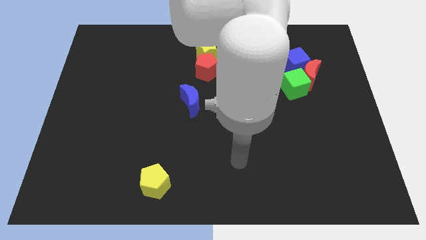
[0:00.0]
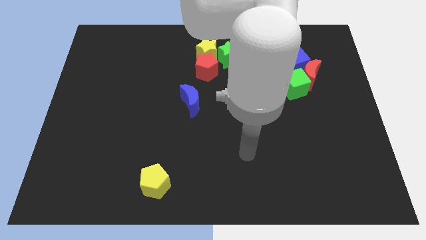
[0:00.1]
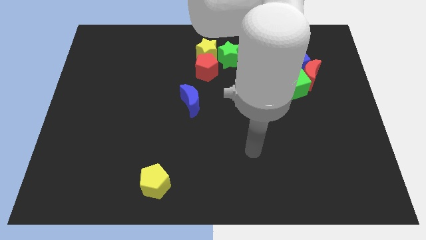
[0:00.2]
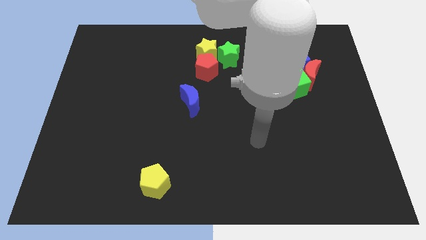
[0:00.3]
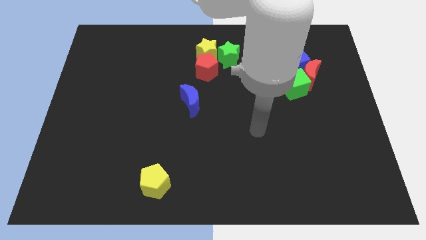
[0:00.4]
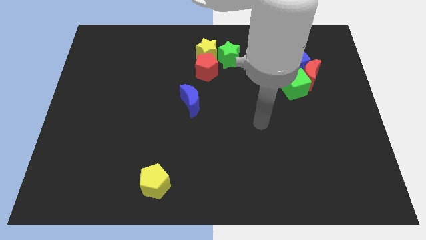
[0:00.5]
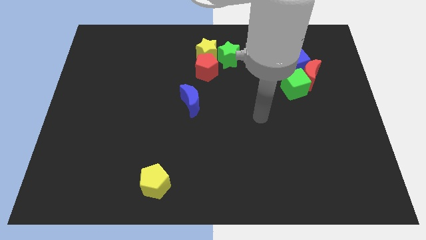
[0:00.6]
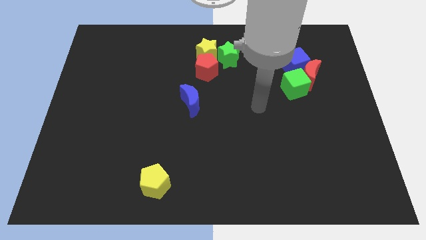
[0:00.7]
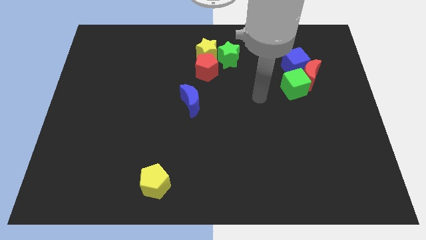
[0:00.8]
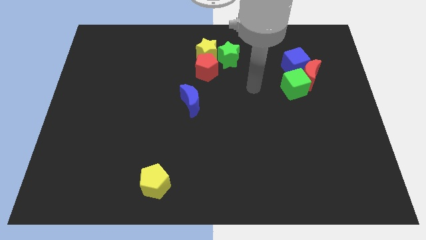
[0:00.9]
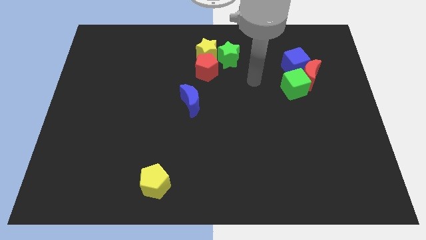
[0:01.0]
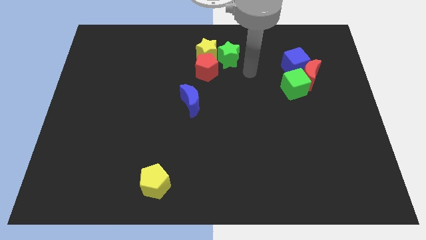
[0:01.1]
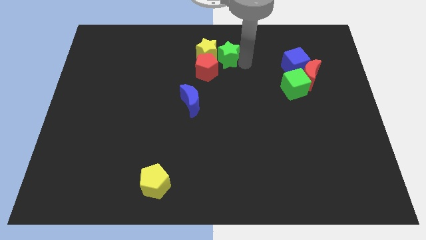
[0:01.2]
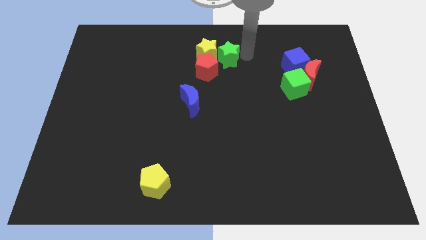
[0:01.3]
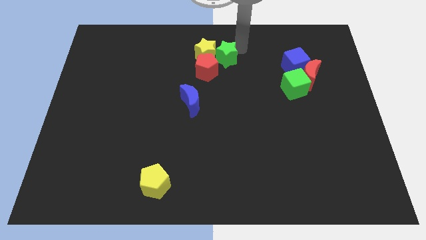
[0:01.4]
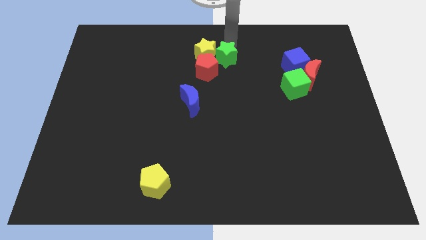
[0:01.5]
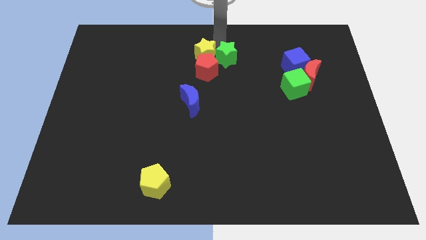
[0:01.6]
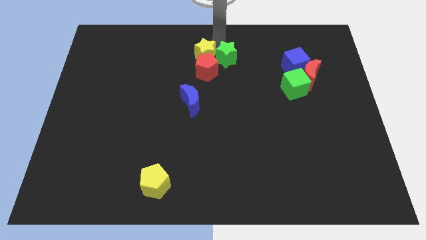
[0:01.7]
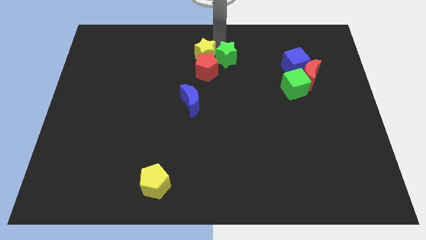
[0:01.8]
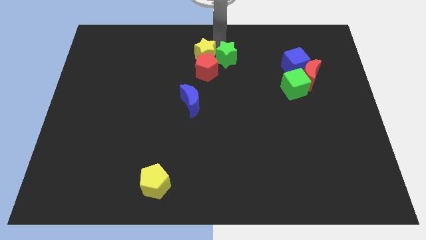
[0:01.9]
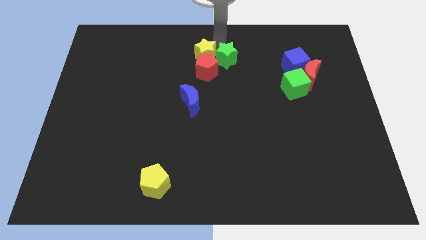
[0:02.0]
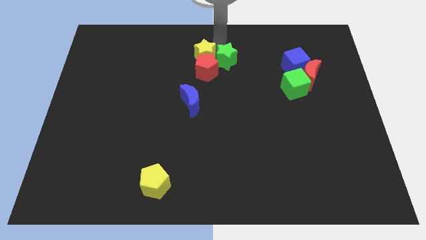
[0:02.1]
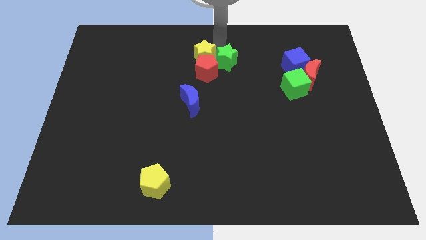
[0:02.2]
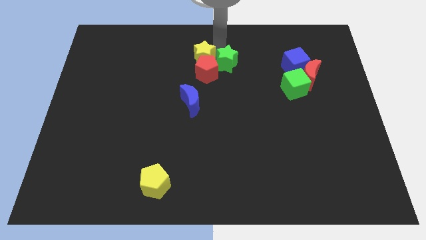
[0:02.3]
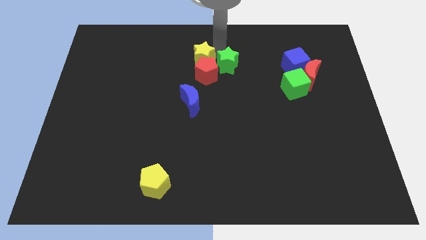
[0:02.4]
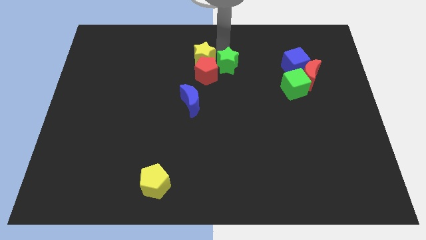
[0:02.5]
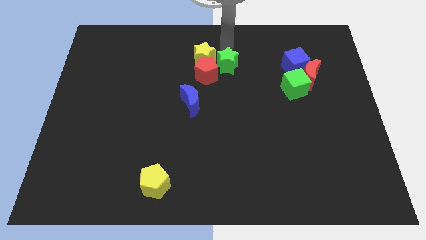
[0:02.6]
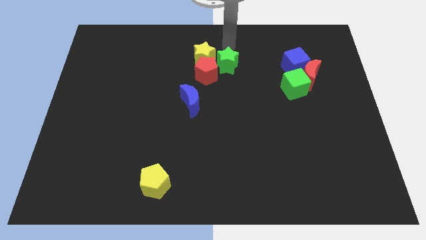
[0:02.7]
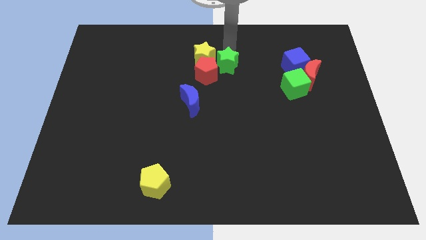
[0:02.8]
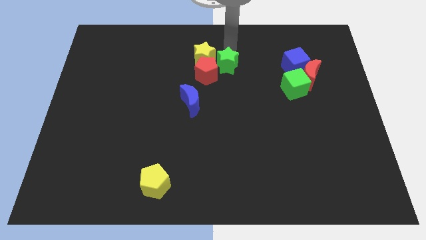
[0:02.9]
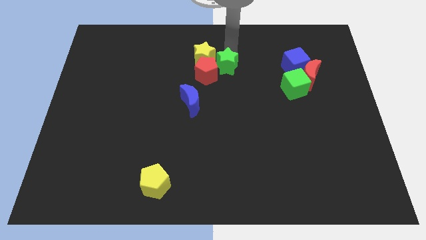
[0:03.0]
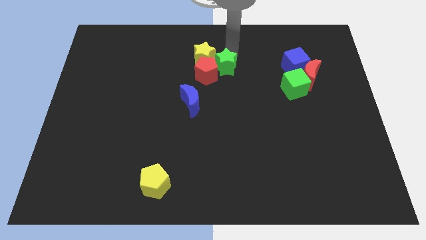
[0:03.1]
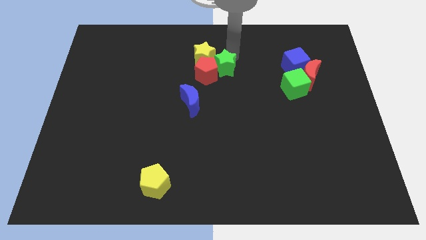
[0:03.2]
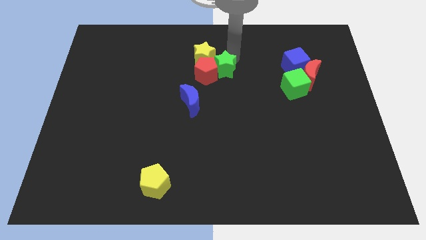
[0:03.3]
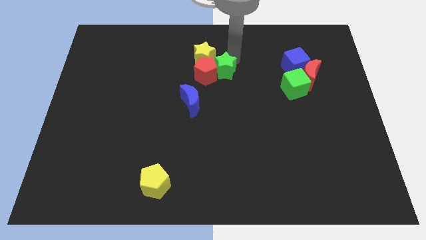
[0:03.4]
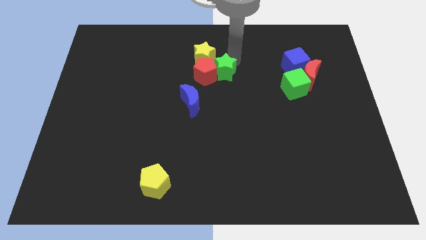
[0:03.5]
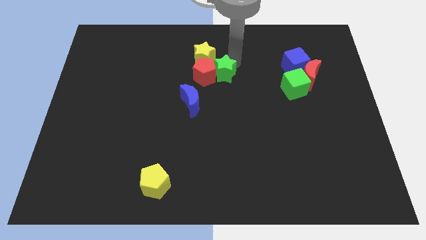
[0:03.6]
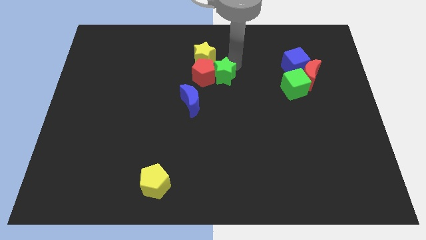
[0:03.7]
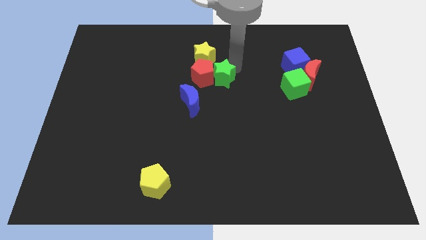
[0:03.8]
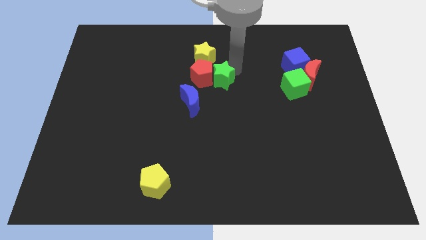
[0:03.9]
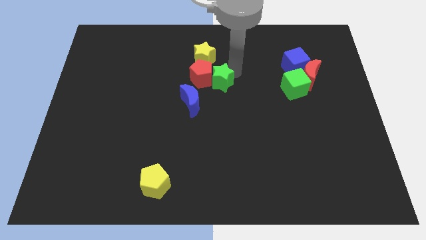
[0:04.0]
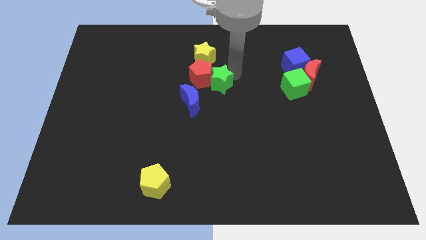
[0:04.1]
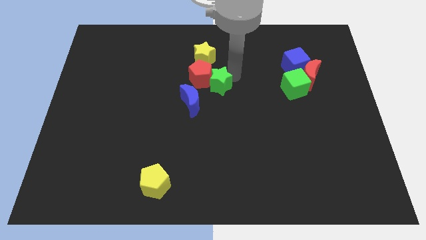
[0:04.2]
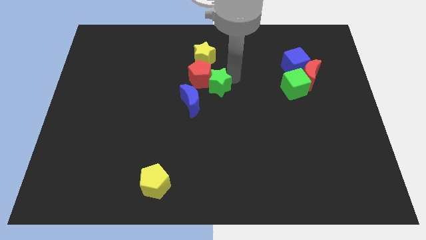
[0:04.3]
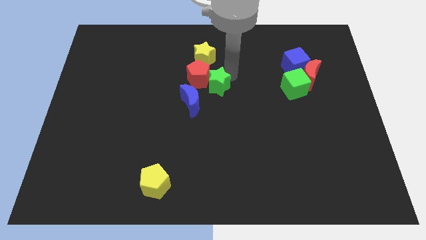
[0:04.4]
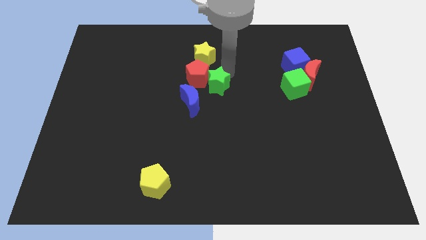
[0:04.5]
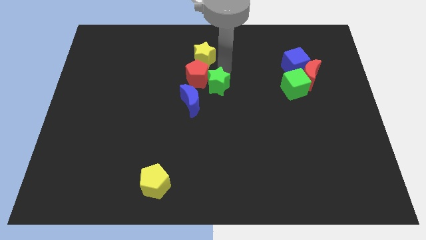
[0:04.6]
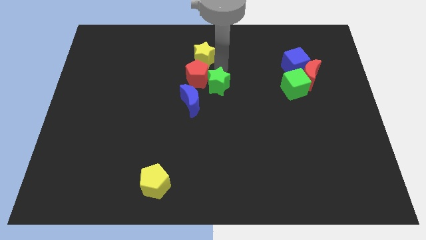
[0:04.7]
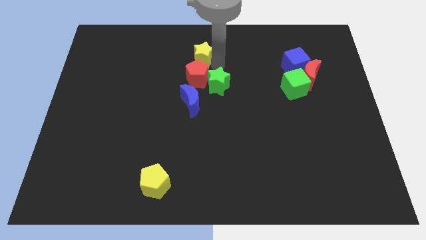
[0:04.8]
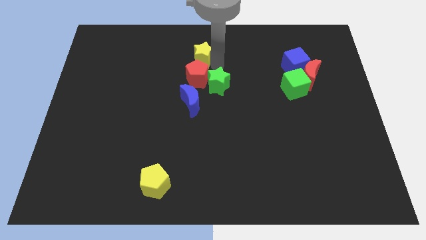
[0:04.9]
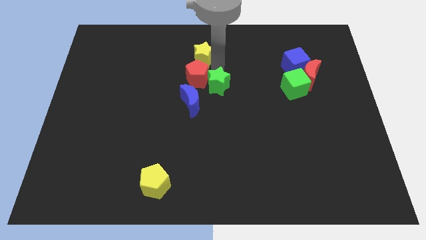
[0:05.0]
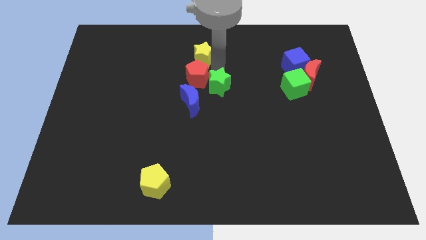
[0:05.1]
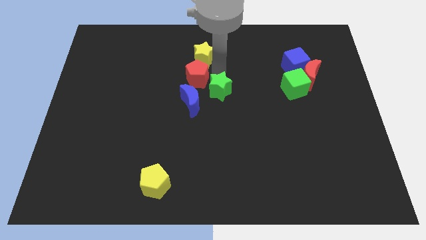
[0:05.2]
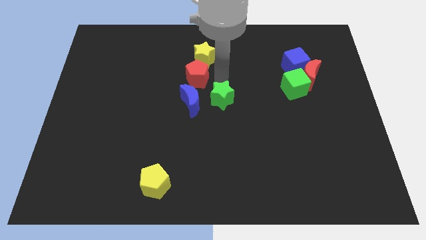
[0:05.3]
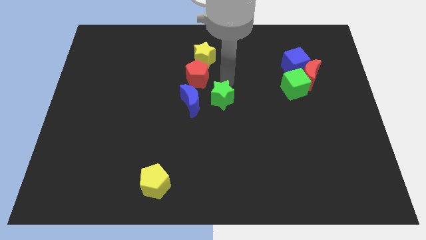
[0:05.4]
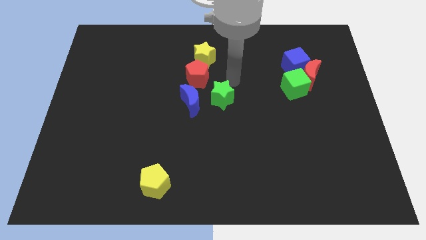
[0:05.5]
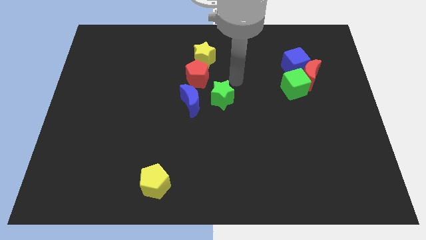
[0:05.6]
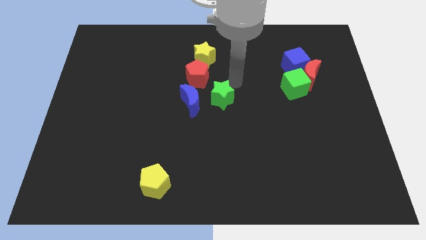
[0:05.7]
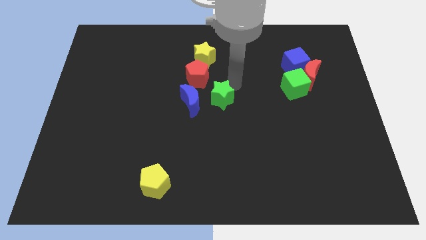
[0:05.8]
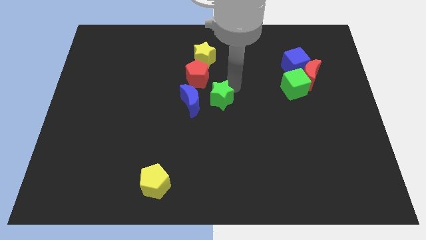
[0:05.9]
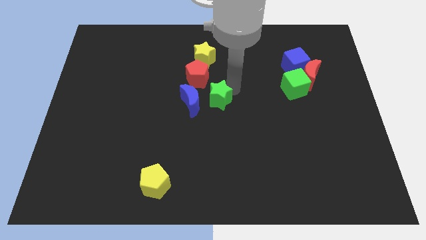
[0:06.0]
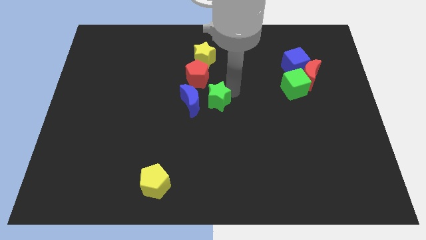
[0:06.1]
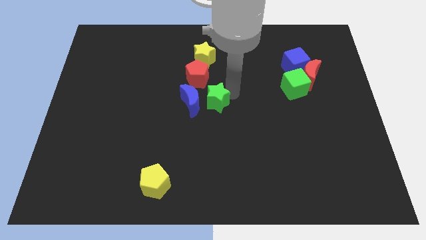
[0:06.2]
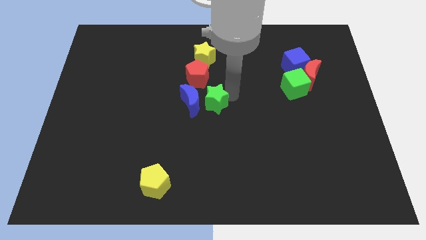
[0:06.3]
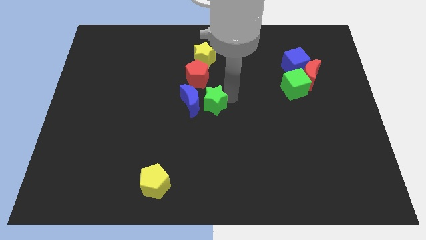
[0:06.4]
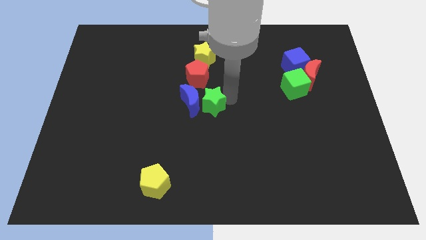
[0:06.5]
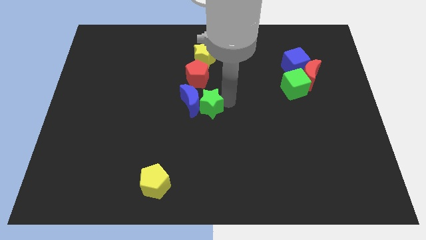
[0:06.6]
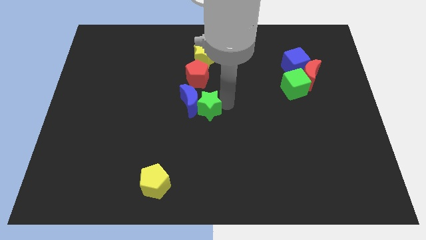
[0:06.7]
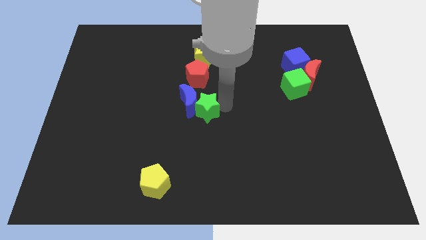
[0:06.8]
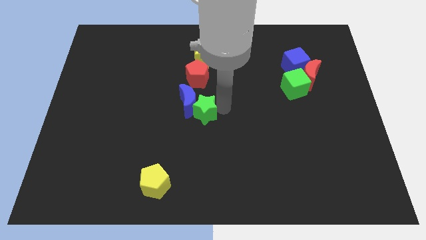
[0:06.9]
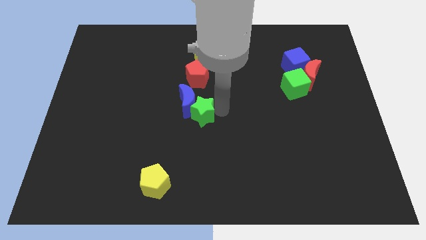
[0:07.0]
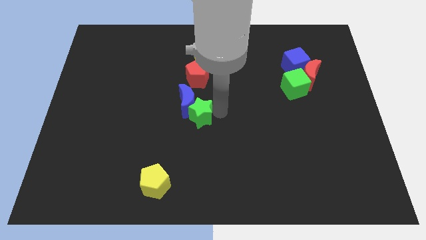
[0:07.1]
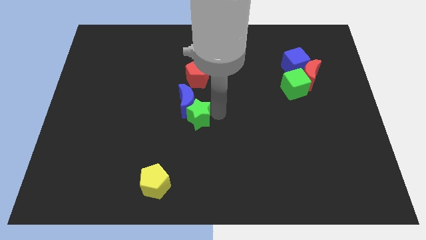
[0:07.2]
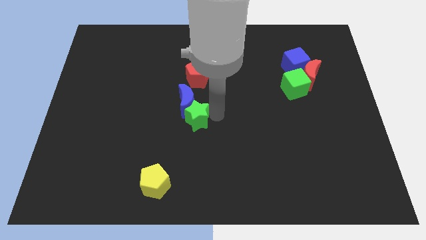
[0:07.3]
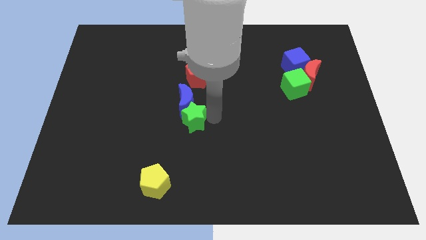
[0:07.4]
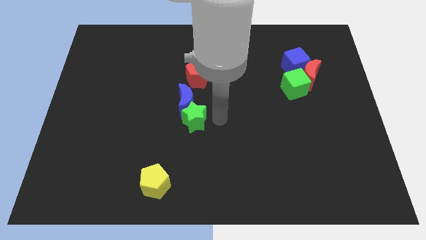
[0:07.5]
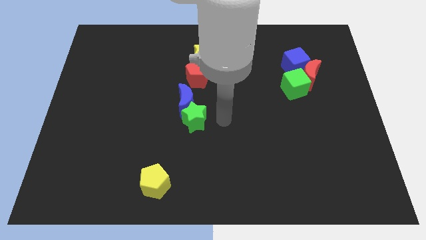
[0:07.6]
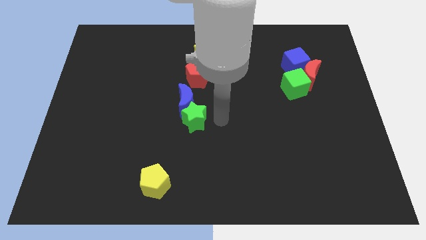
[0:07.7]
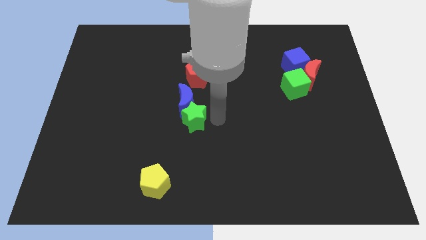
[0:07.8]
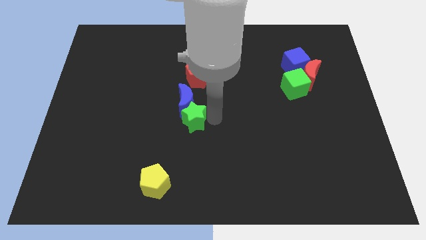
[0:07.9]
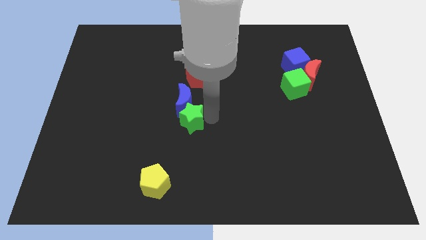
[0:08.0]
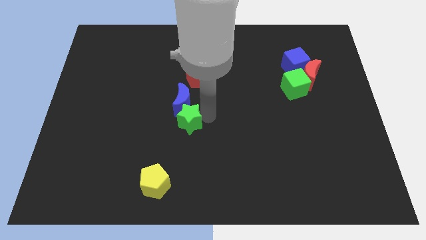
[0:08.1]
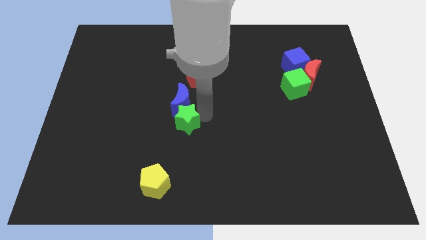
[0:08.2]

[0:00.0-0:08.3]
slide the green star to the bottom left side of the blue moon
